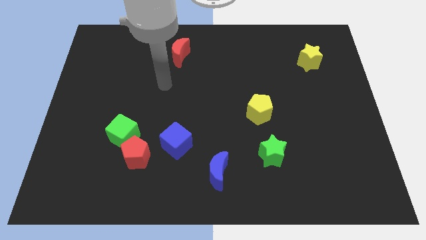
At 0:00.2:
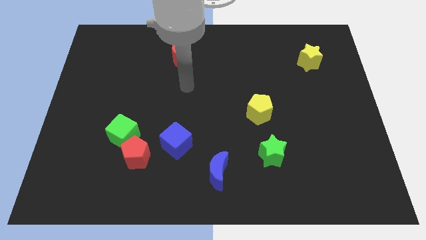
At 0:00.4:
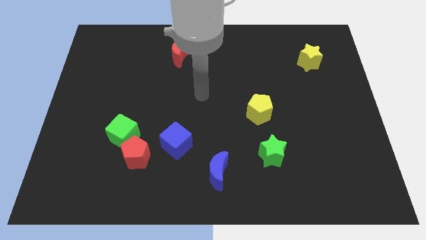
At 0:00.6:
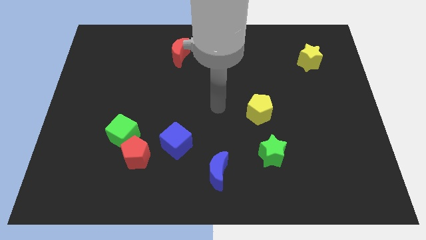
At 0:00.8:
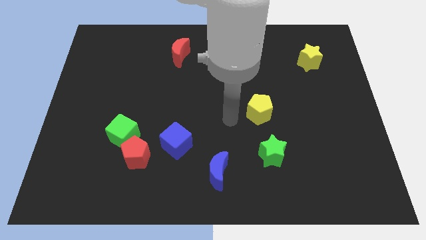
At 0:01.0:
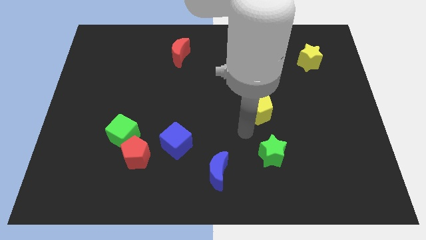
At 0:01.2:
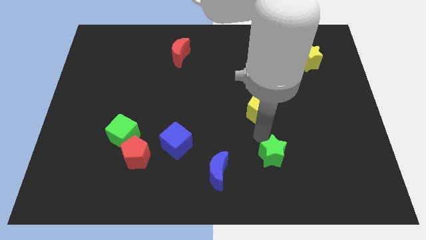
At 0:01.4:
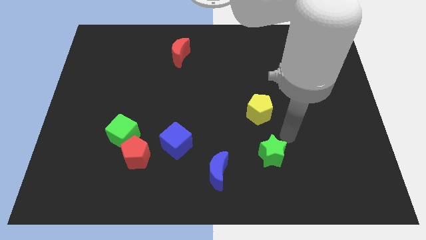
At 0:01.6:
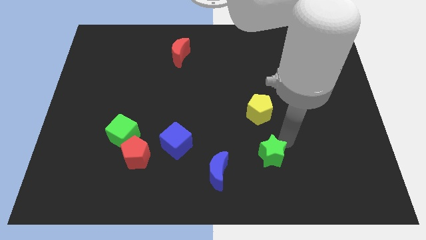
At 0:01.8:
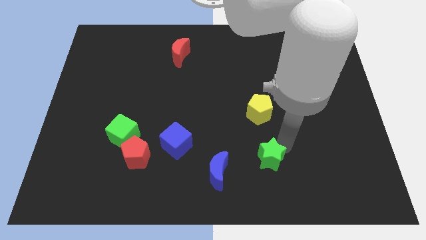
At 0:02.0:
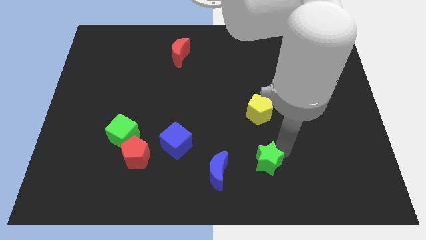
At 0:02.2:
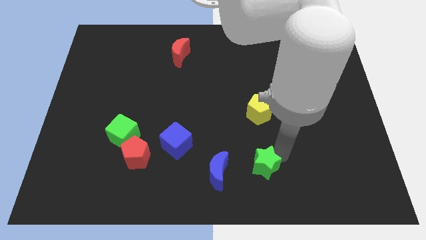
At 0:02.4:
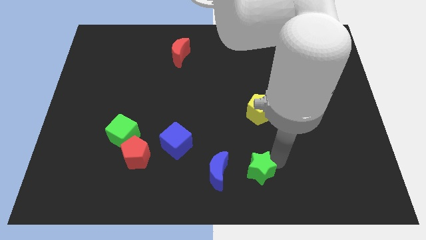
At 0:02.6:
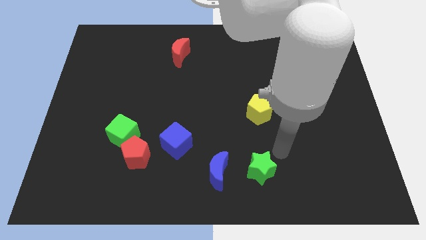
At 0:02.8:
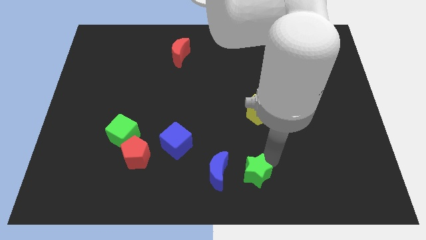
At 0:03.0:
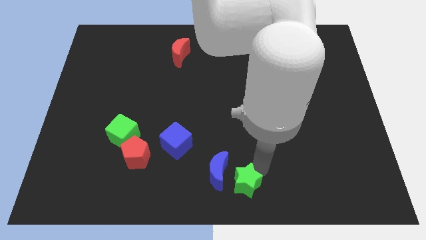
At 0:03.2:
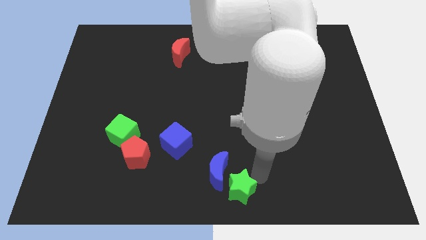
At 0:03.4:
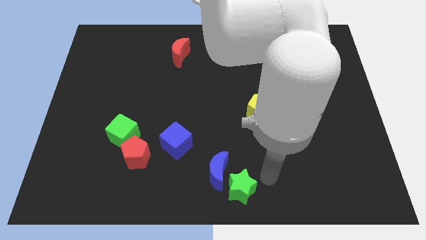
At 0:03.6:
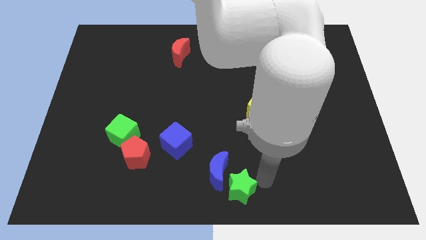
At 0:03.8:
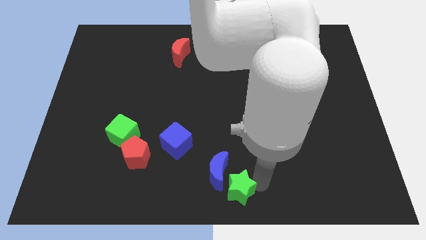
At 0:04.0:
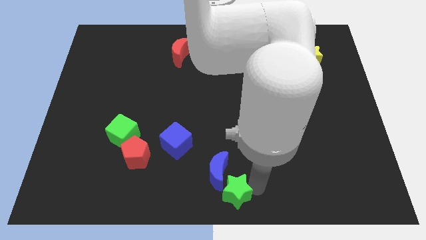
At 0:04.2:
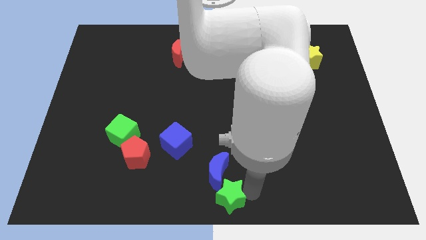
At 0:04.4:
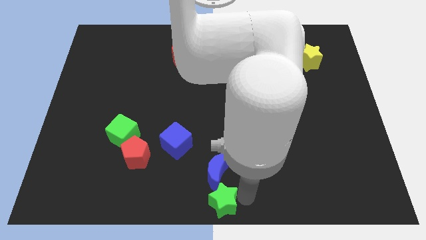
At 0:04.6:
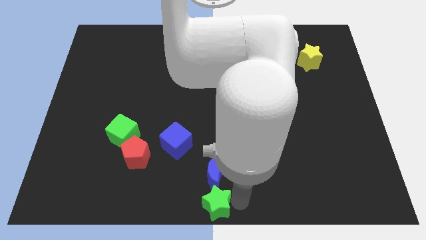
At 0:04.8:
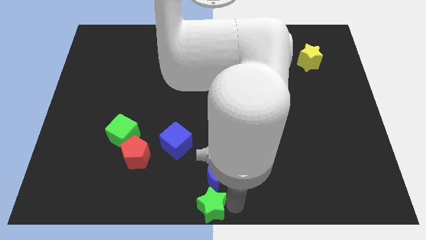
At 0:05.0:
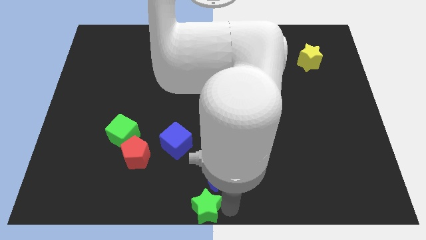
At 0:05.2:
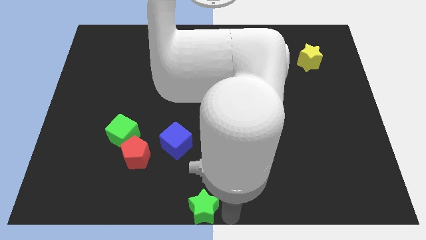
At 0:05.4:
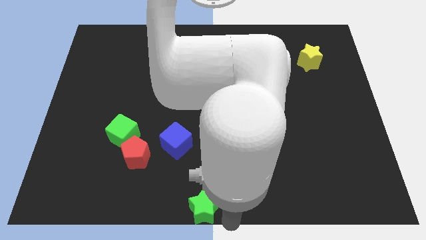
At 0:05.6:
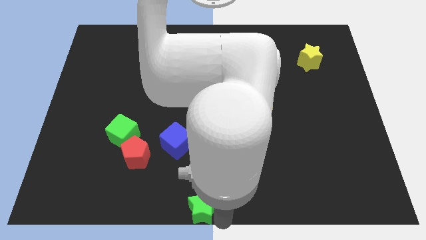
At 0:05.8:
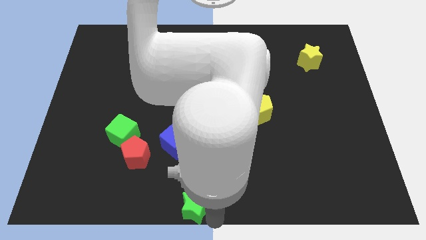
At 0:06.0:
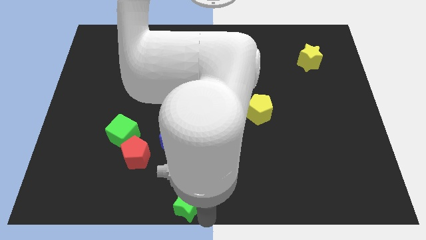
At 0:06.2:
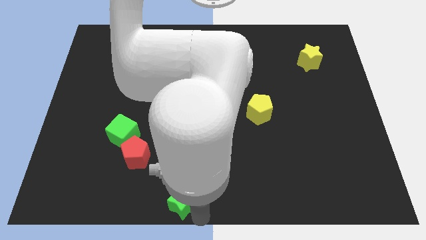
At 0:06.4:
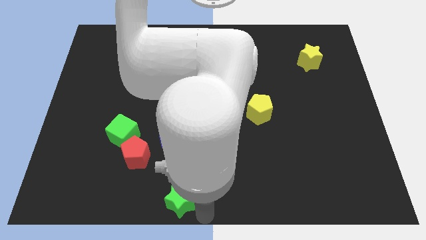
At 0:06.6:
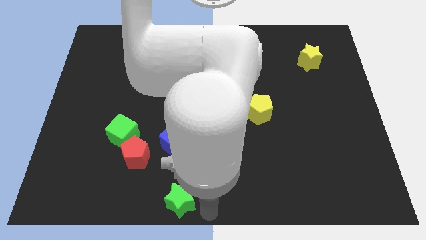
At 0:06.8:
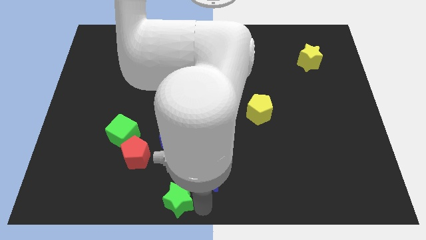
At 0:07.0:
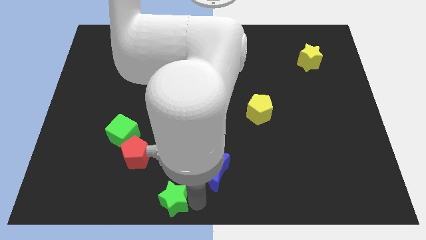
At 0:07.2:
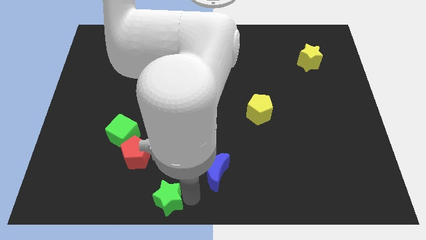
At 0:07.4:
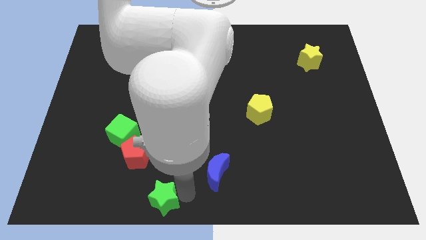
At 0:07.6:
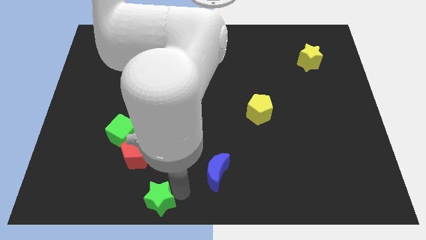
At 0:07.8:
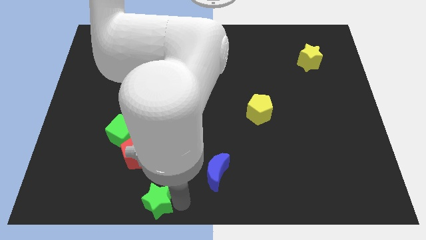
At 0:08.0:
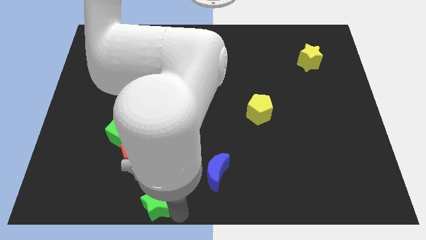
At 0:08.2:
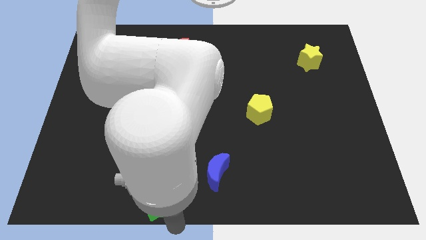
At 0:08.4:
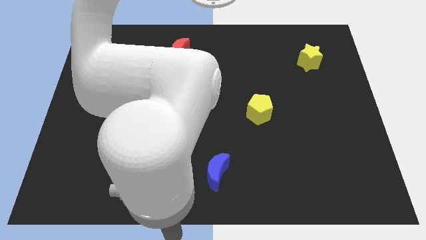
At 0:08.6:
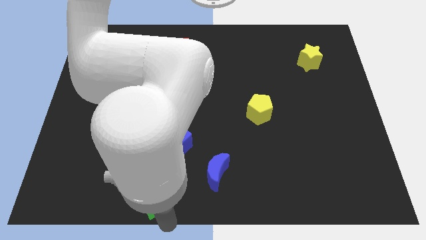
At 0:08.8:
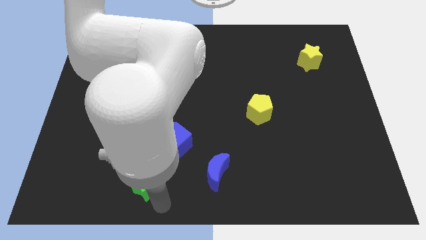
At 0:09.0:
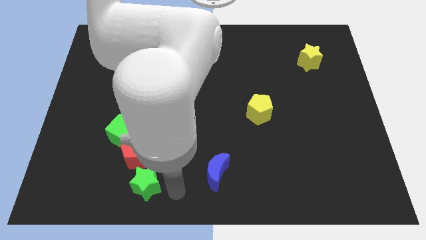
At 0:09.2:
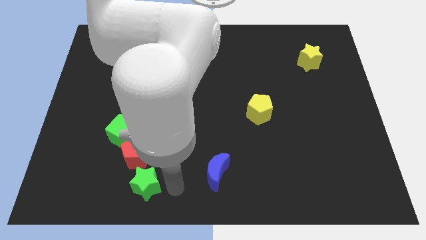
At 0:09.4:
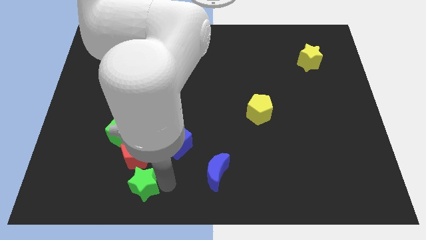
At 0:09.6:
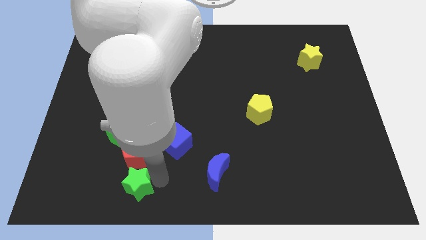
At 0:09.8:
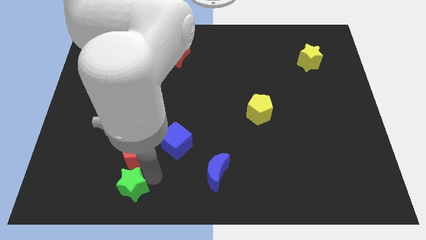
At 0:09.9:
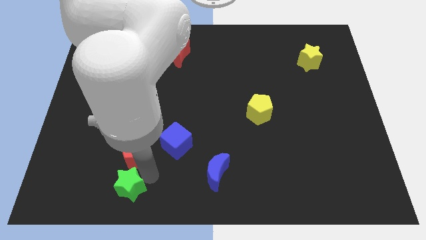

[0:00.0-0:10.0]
slide the green star to the bottom left of the red pentagon

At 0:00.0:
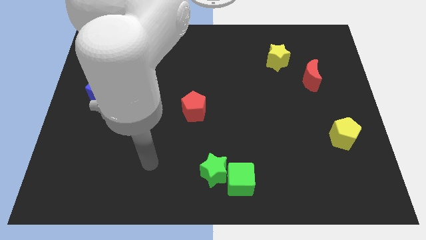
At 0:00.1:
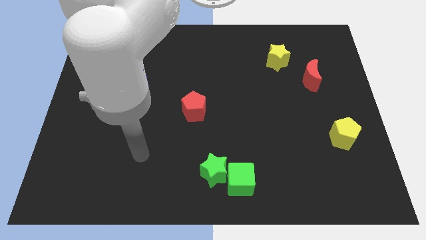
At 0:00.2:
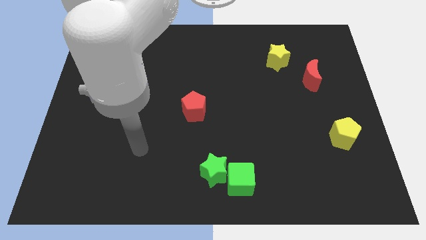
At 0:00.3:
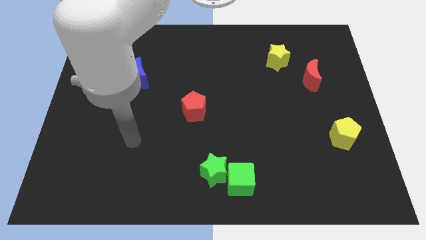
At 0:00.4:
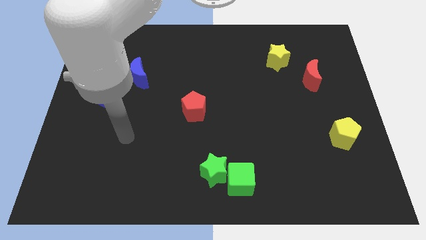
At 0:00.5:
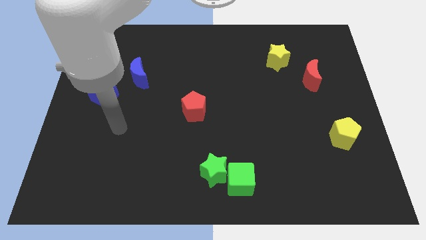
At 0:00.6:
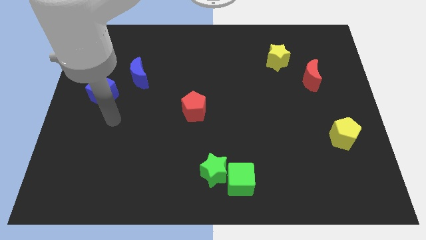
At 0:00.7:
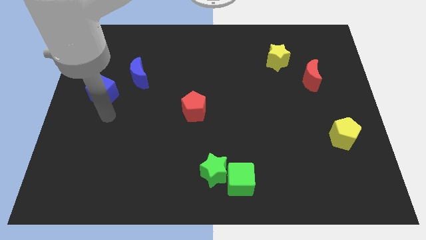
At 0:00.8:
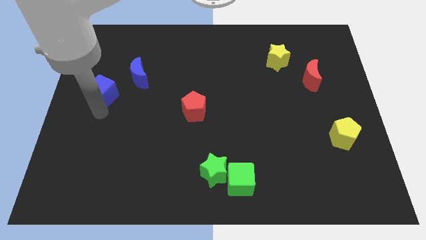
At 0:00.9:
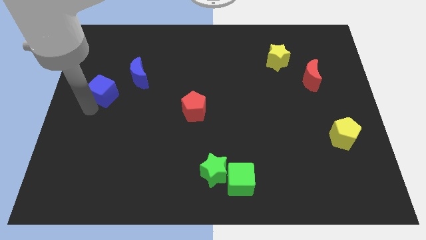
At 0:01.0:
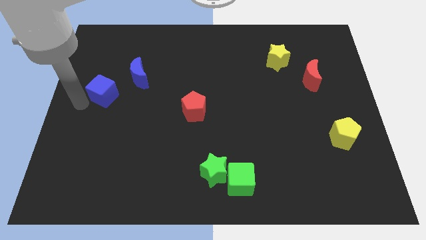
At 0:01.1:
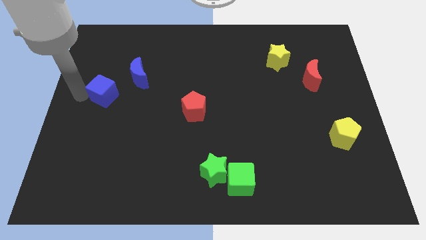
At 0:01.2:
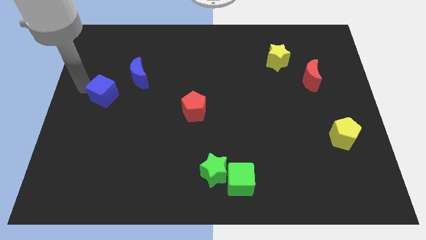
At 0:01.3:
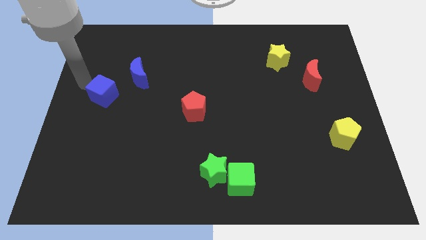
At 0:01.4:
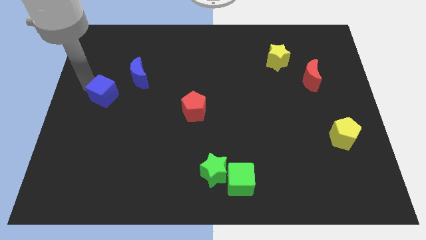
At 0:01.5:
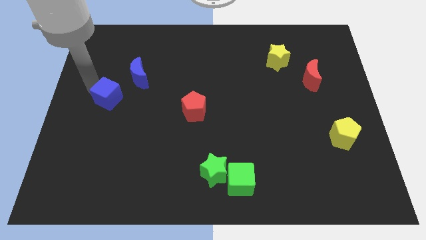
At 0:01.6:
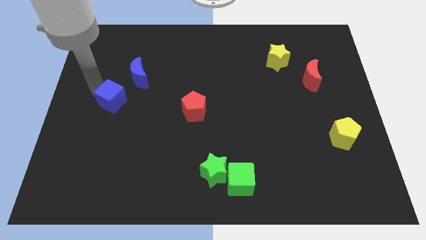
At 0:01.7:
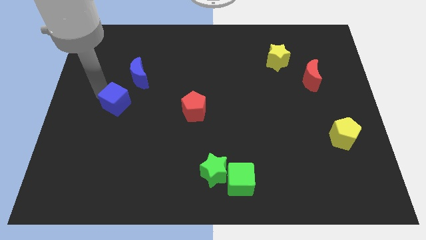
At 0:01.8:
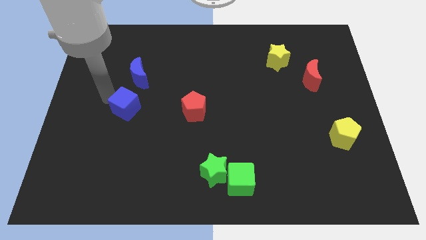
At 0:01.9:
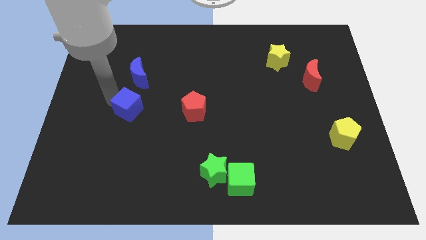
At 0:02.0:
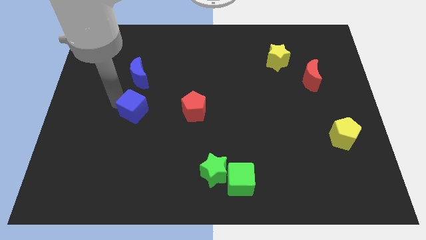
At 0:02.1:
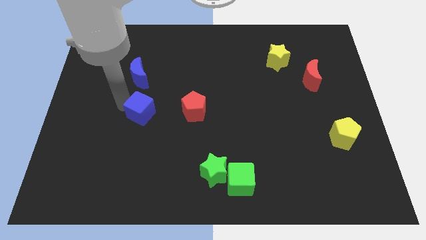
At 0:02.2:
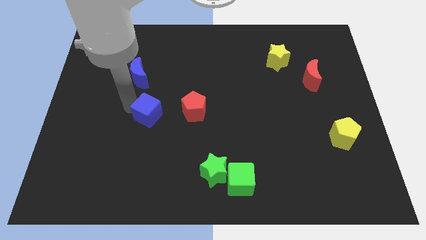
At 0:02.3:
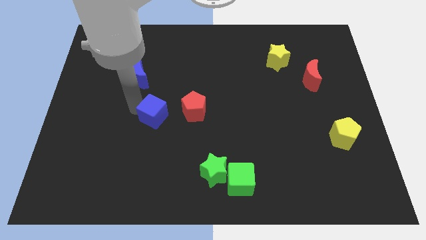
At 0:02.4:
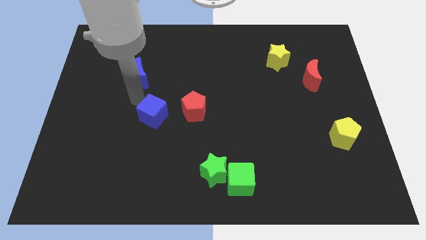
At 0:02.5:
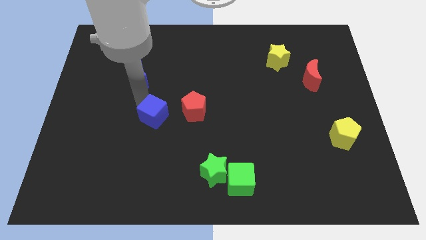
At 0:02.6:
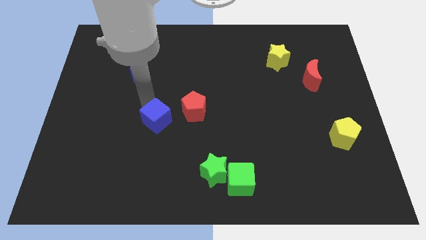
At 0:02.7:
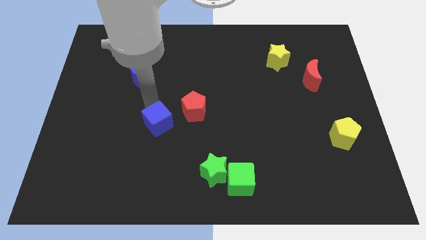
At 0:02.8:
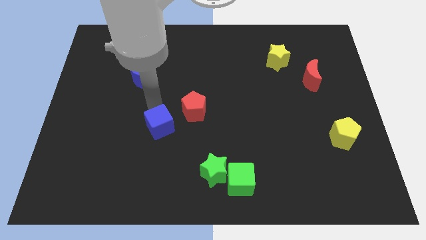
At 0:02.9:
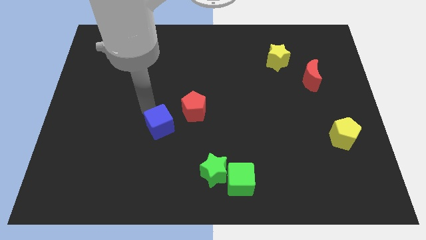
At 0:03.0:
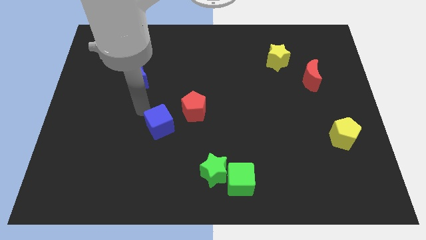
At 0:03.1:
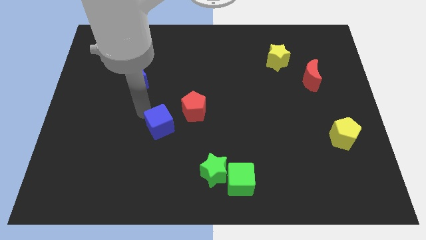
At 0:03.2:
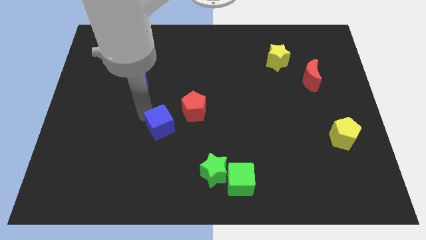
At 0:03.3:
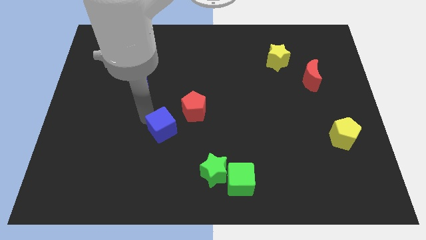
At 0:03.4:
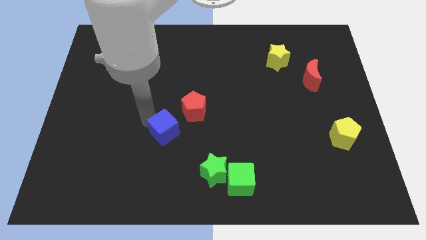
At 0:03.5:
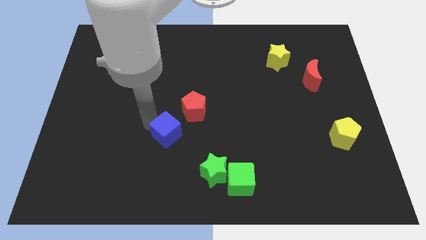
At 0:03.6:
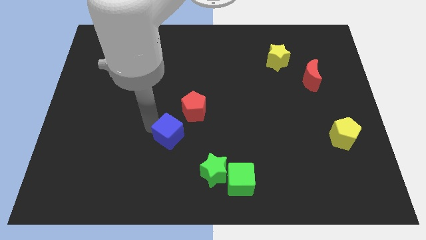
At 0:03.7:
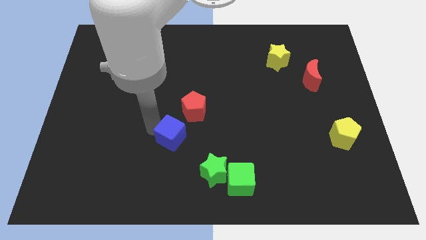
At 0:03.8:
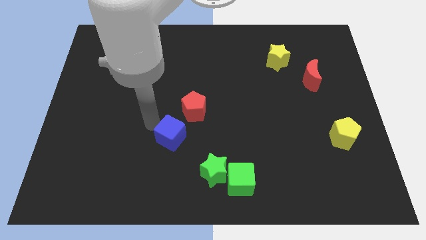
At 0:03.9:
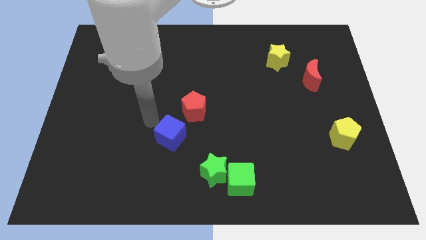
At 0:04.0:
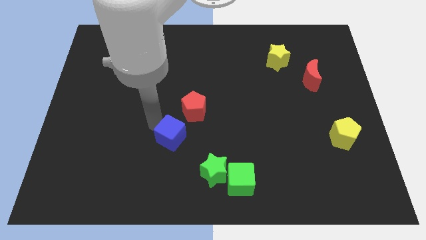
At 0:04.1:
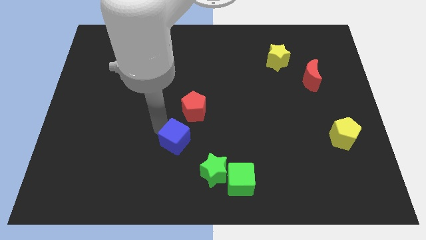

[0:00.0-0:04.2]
put the blue cube diagonally up and to the left of the green star
